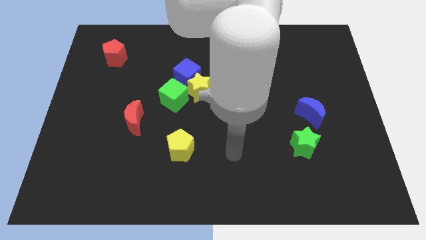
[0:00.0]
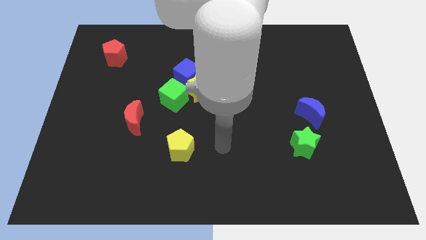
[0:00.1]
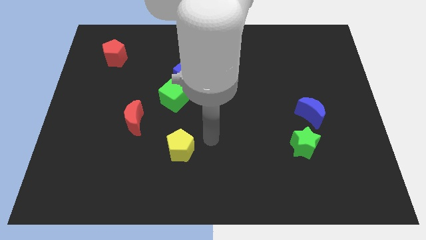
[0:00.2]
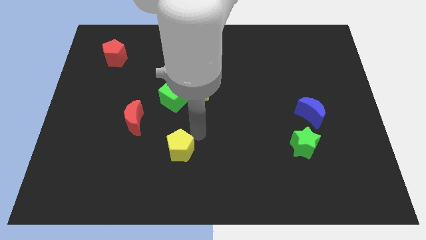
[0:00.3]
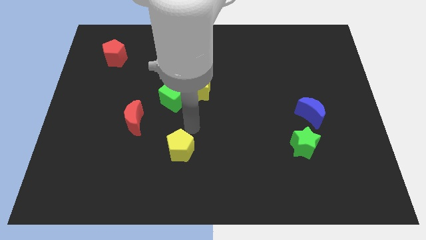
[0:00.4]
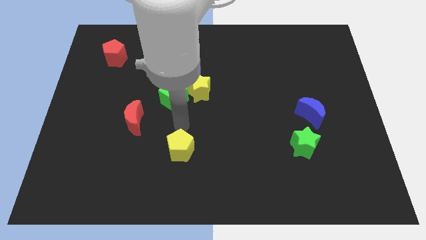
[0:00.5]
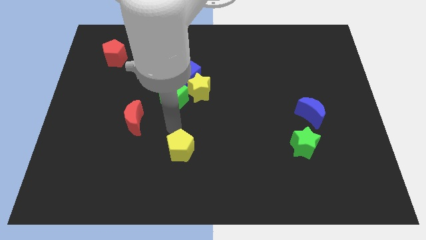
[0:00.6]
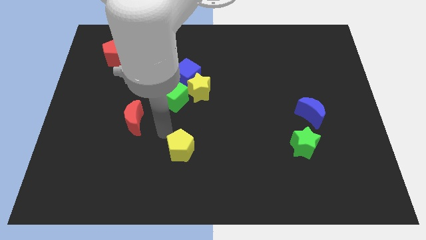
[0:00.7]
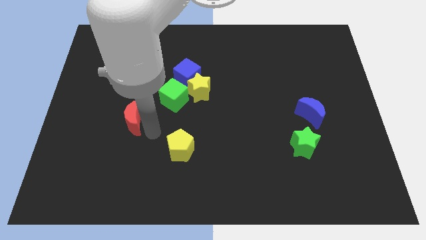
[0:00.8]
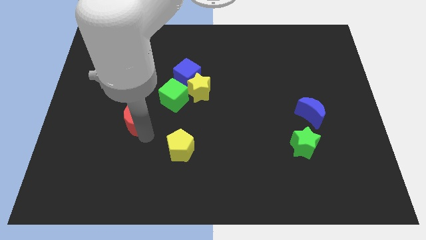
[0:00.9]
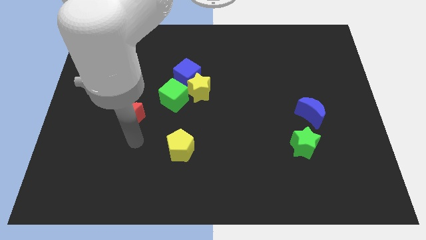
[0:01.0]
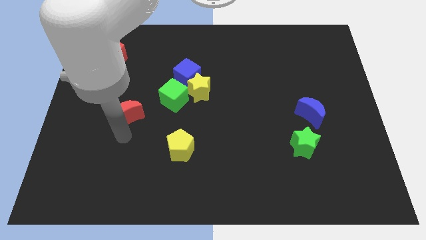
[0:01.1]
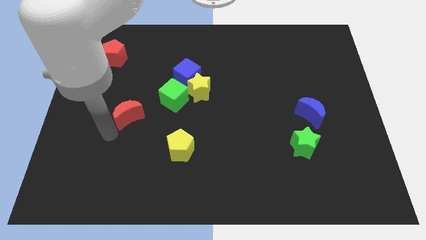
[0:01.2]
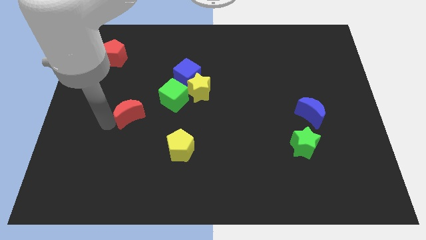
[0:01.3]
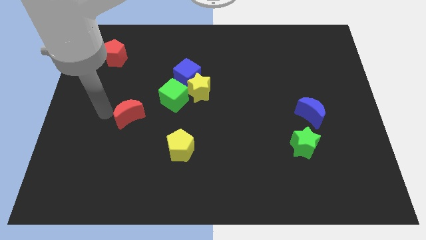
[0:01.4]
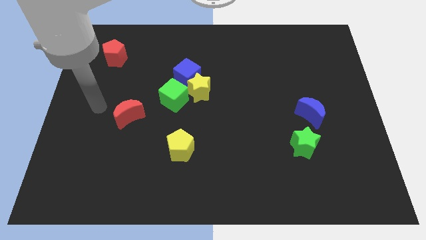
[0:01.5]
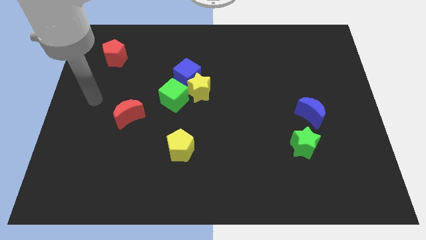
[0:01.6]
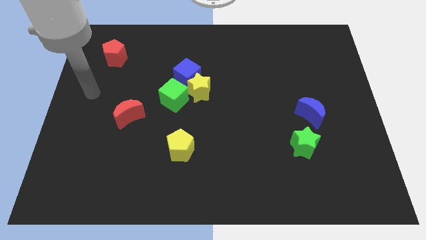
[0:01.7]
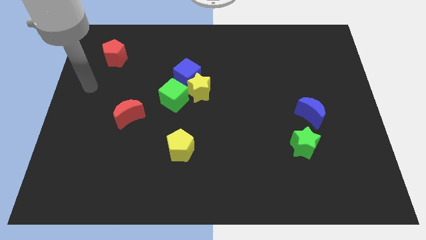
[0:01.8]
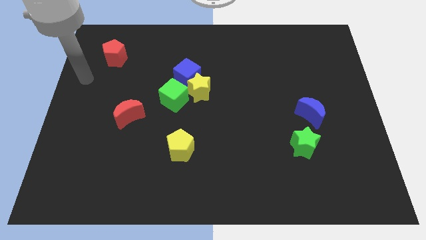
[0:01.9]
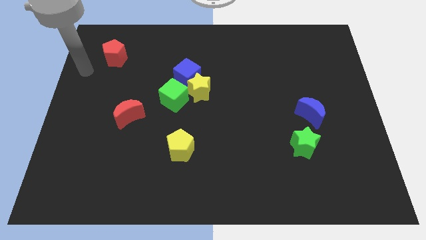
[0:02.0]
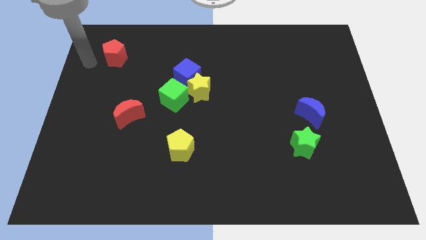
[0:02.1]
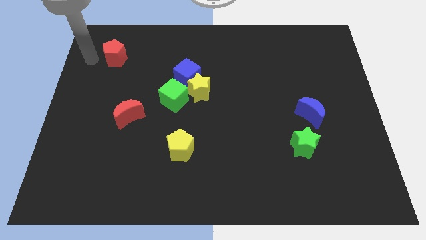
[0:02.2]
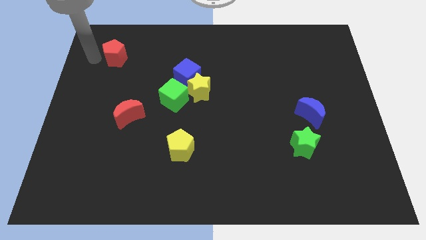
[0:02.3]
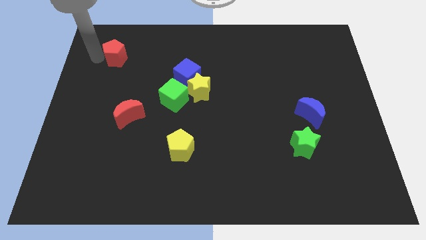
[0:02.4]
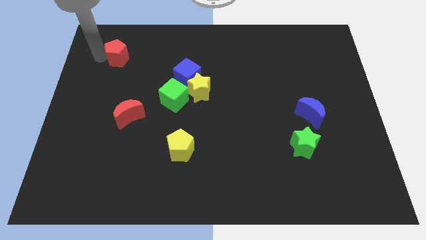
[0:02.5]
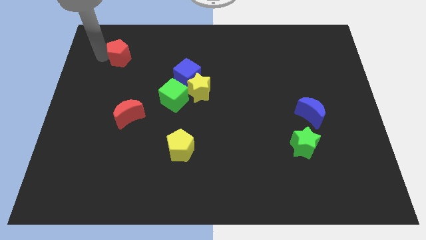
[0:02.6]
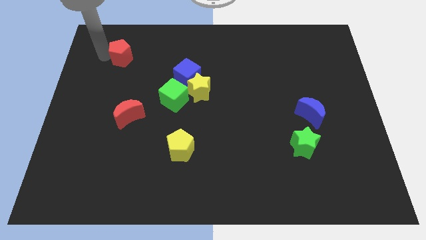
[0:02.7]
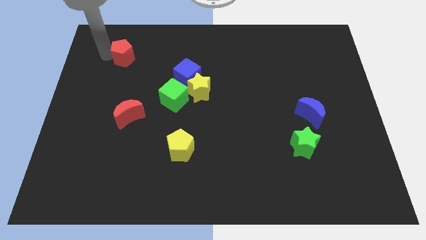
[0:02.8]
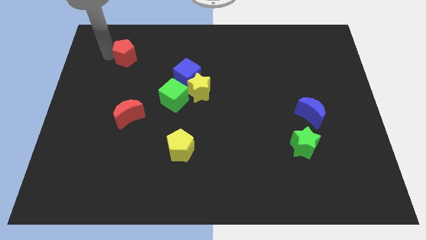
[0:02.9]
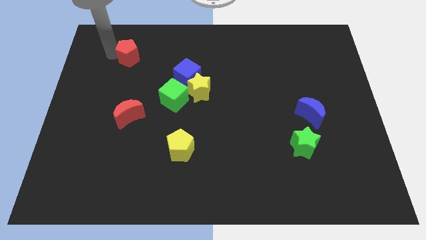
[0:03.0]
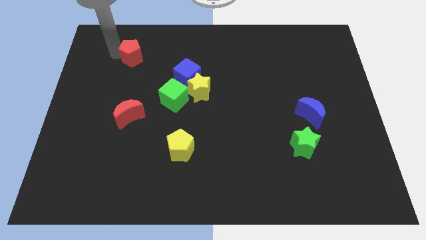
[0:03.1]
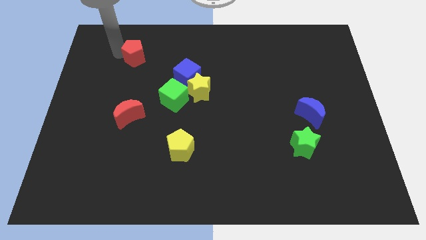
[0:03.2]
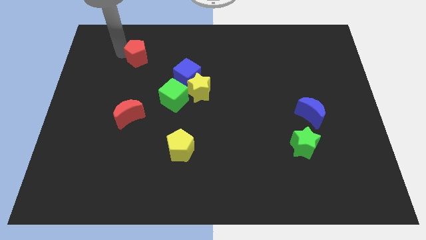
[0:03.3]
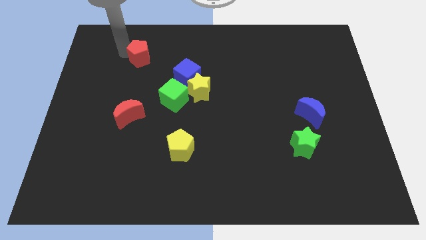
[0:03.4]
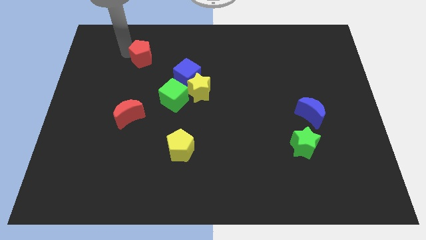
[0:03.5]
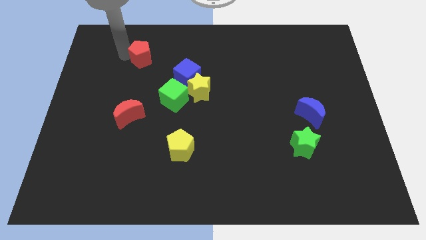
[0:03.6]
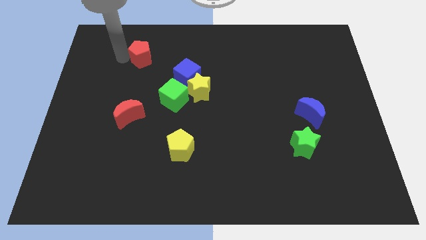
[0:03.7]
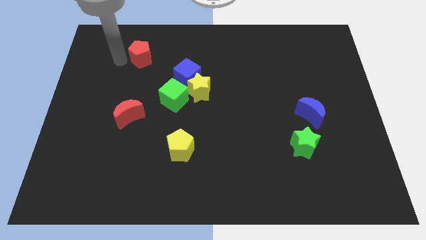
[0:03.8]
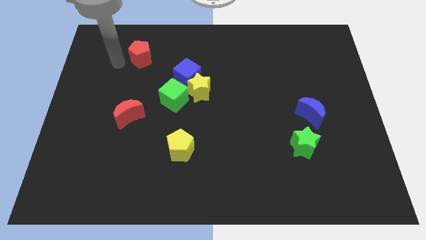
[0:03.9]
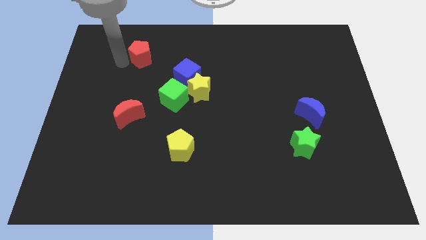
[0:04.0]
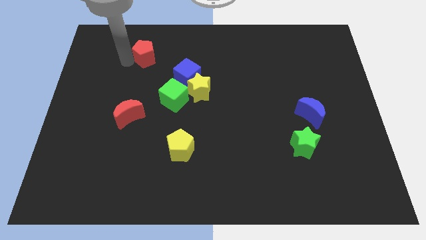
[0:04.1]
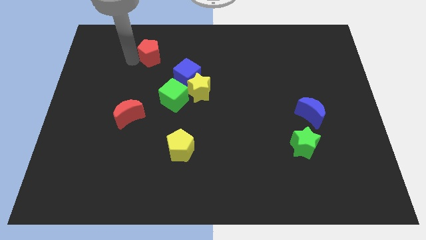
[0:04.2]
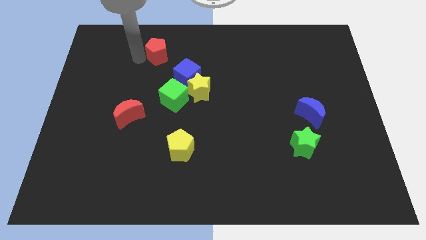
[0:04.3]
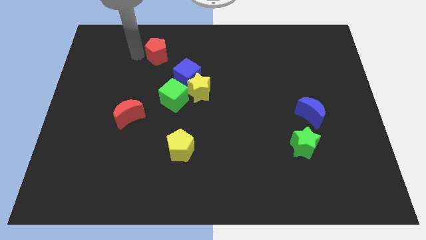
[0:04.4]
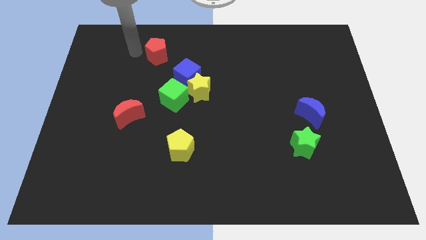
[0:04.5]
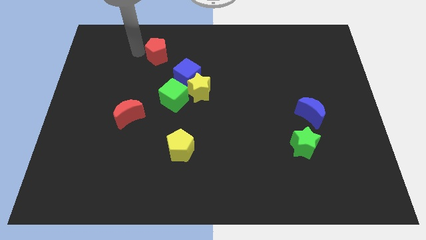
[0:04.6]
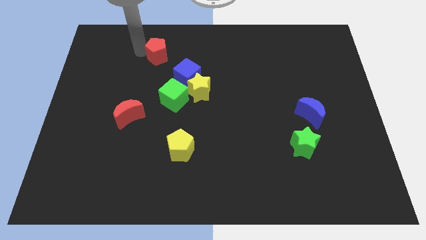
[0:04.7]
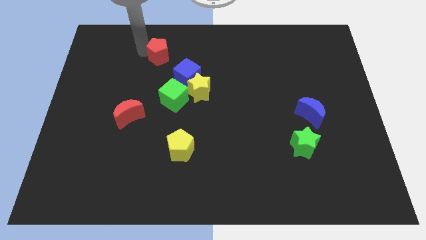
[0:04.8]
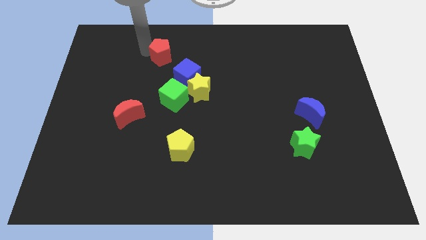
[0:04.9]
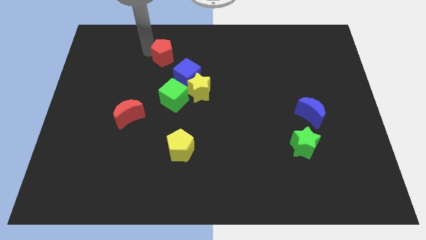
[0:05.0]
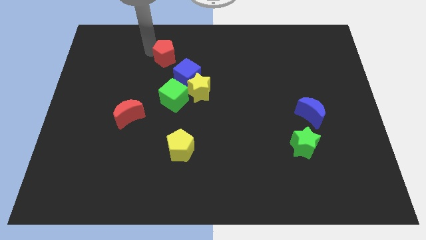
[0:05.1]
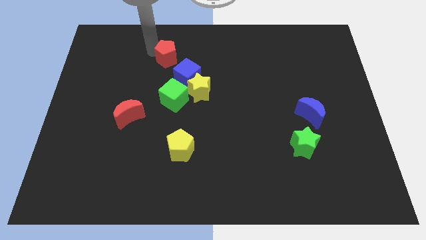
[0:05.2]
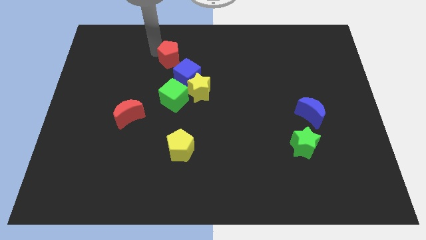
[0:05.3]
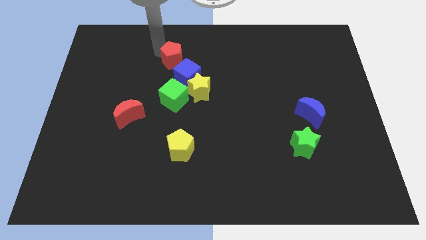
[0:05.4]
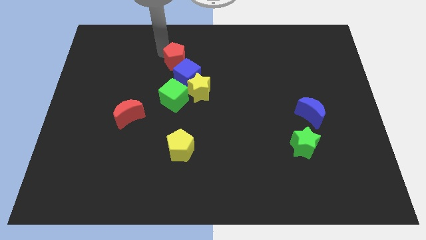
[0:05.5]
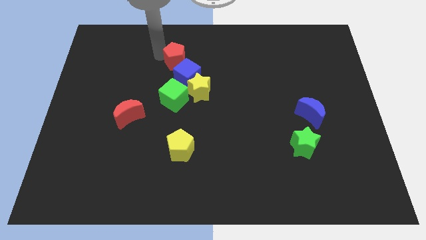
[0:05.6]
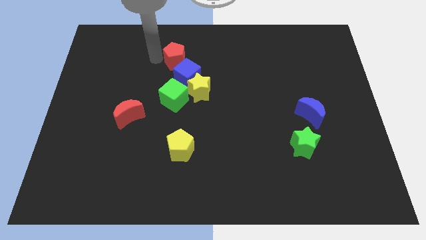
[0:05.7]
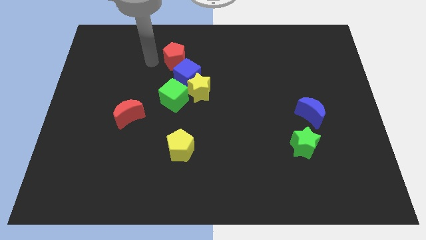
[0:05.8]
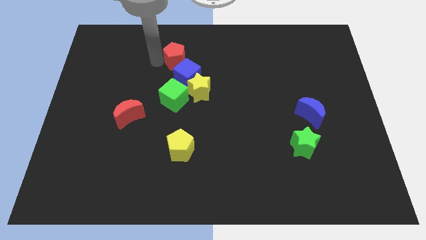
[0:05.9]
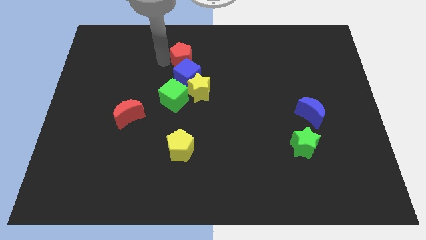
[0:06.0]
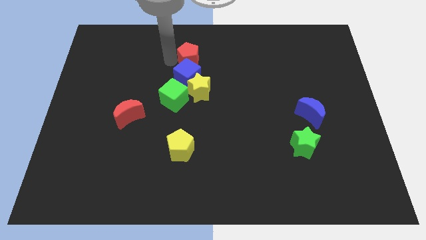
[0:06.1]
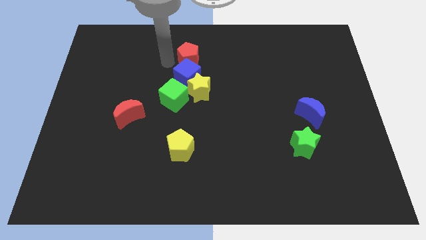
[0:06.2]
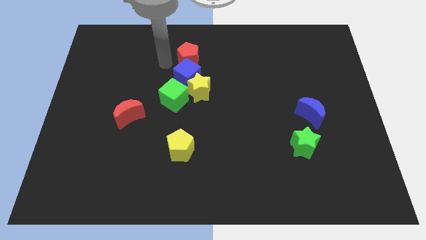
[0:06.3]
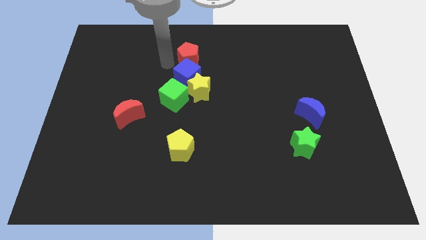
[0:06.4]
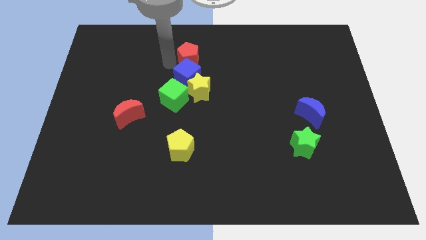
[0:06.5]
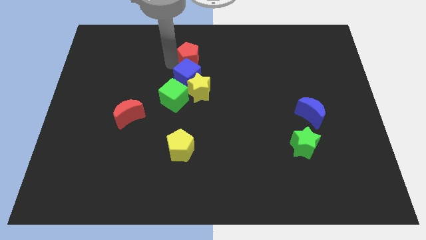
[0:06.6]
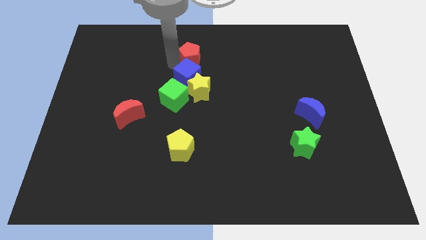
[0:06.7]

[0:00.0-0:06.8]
push the red pentagon to the right

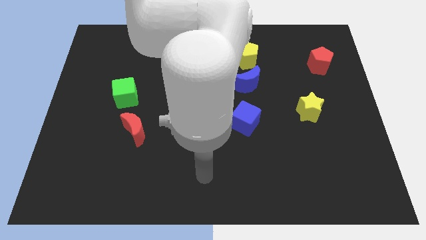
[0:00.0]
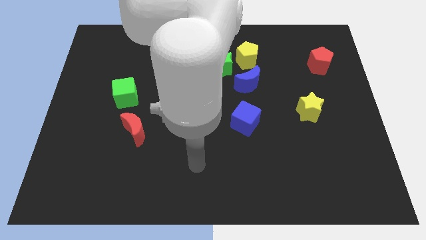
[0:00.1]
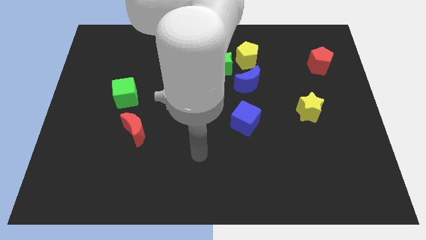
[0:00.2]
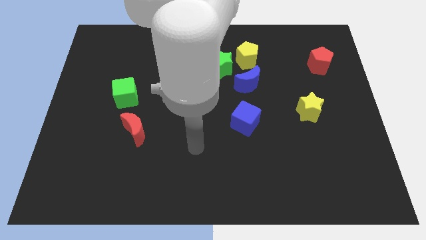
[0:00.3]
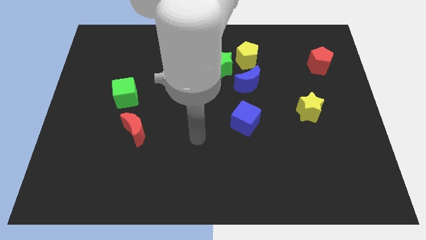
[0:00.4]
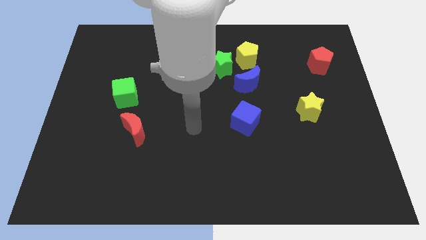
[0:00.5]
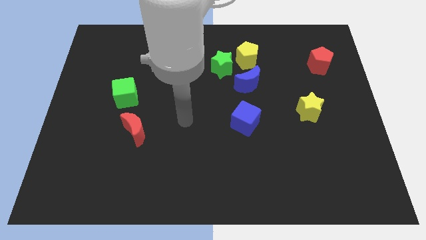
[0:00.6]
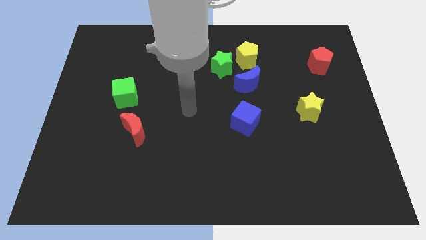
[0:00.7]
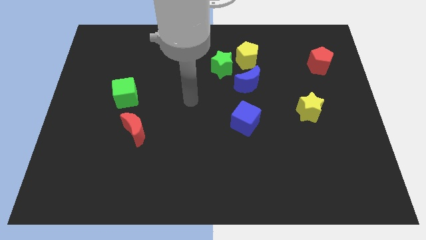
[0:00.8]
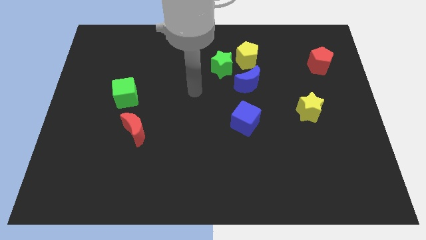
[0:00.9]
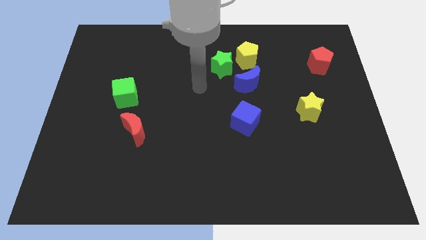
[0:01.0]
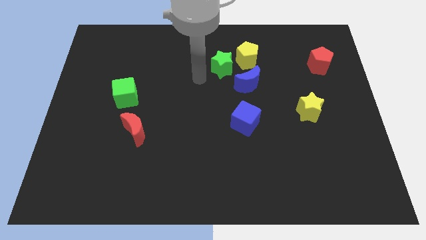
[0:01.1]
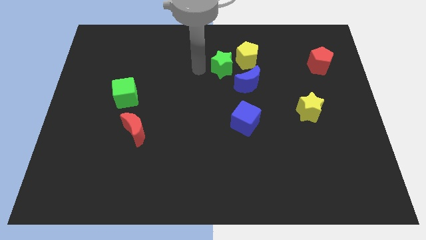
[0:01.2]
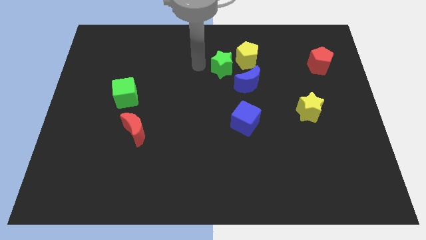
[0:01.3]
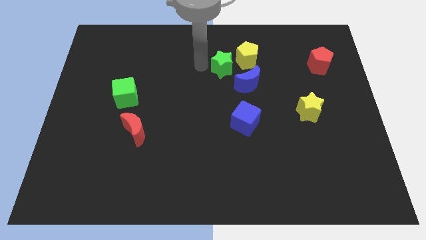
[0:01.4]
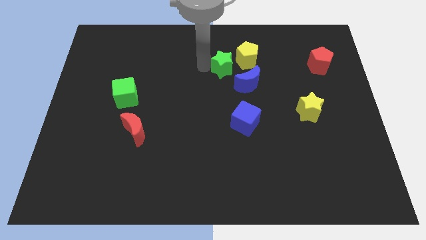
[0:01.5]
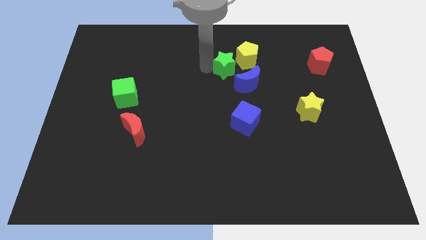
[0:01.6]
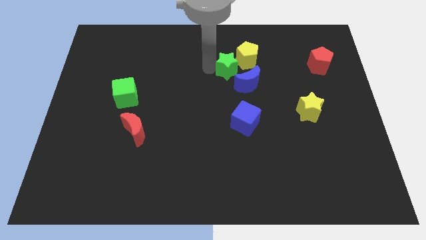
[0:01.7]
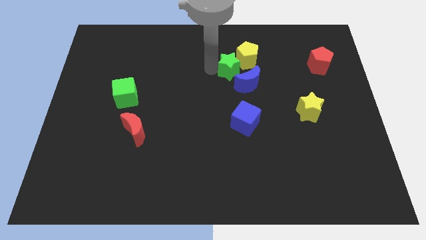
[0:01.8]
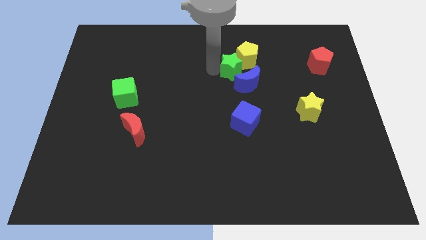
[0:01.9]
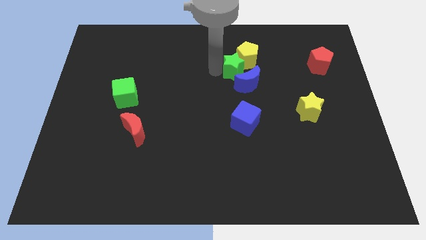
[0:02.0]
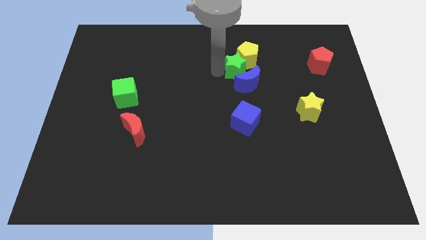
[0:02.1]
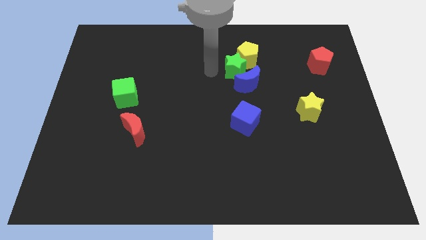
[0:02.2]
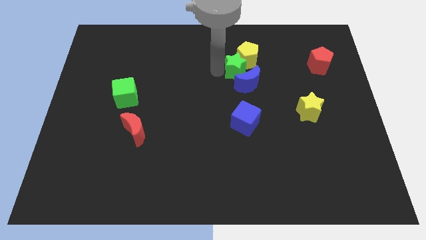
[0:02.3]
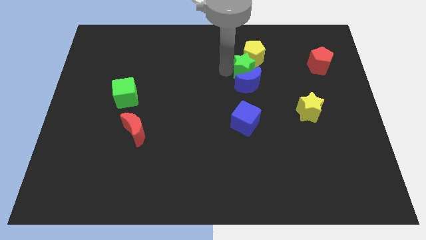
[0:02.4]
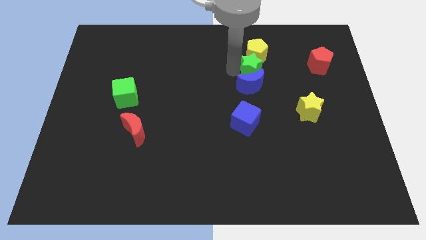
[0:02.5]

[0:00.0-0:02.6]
slide the green star to the right a bit
